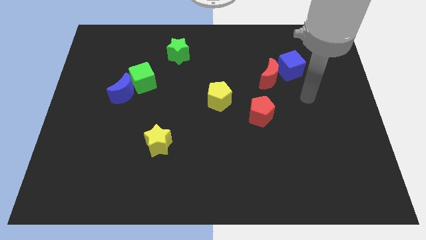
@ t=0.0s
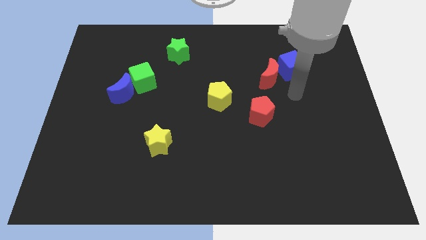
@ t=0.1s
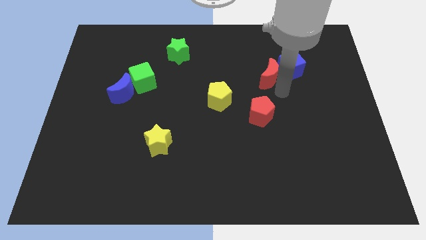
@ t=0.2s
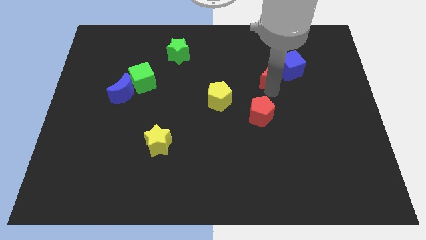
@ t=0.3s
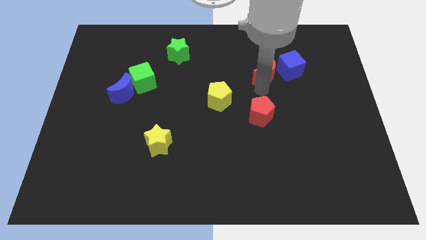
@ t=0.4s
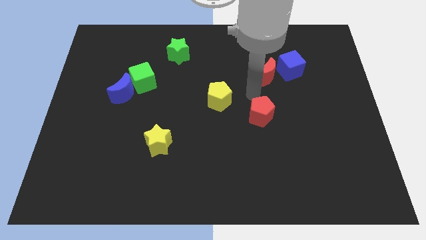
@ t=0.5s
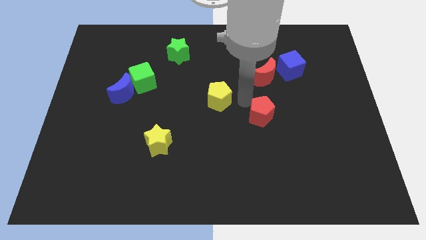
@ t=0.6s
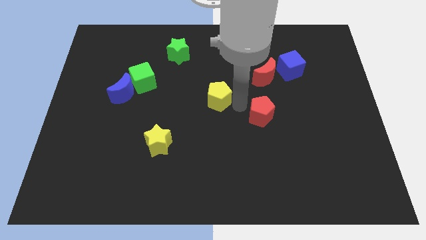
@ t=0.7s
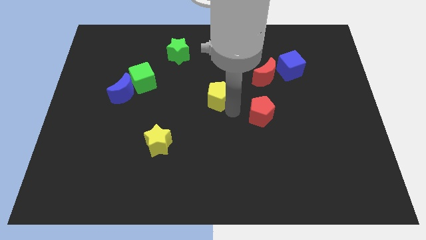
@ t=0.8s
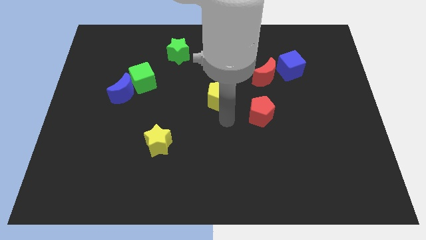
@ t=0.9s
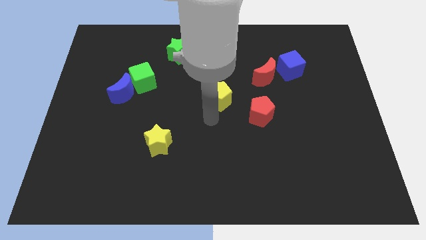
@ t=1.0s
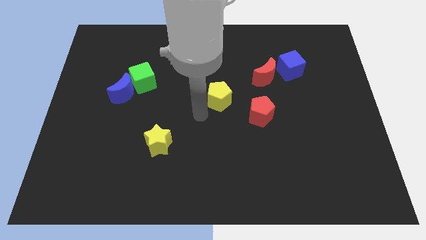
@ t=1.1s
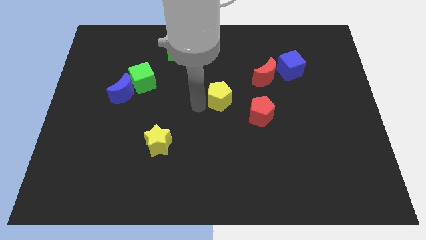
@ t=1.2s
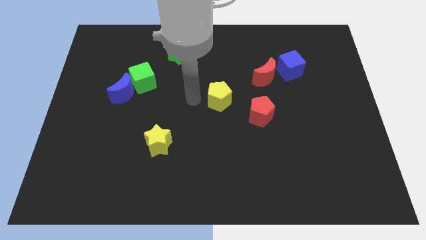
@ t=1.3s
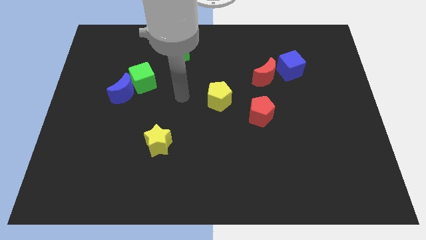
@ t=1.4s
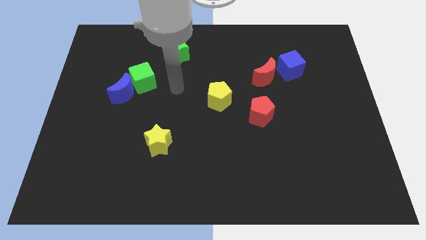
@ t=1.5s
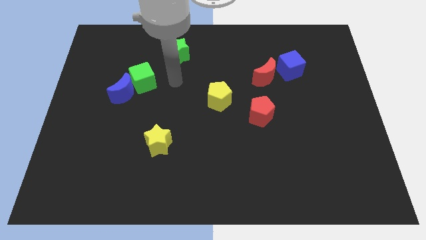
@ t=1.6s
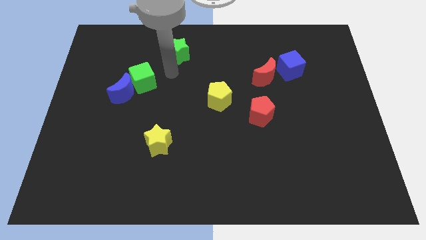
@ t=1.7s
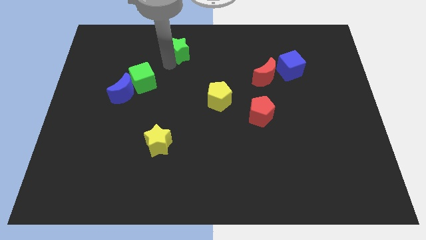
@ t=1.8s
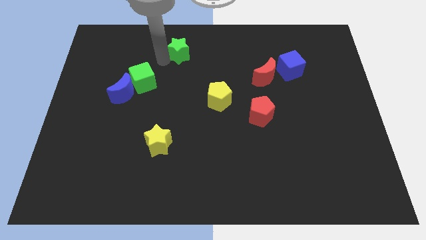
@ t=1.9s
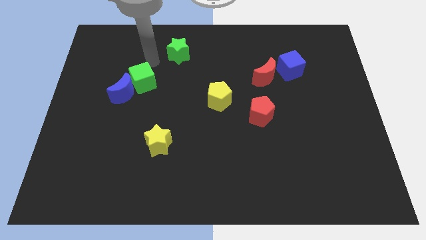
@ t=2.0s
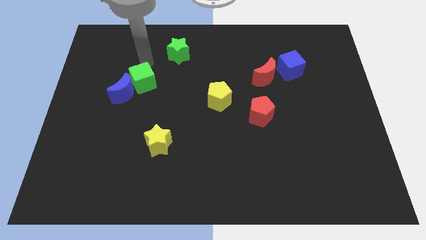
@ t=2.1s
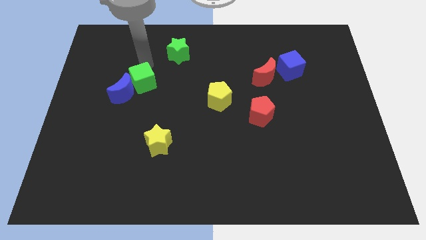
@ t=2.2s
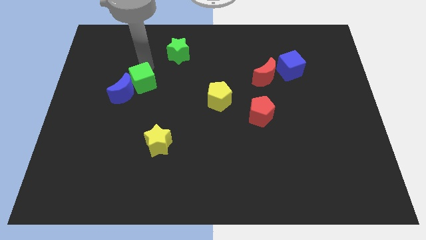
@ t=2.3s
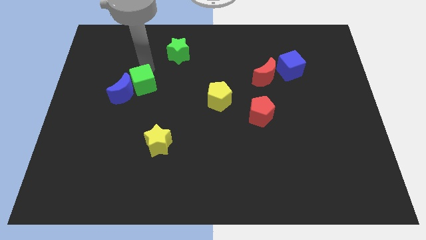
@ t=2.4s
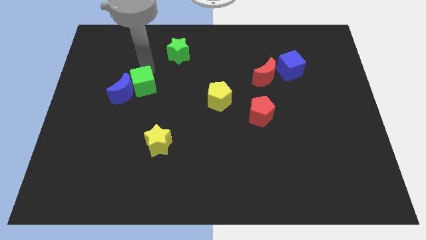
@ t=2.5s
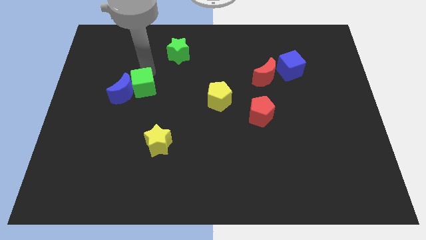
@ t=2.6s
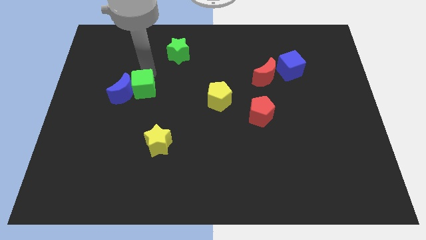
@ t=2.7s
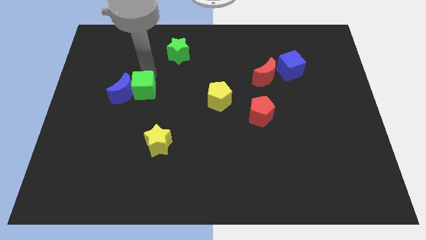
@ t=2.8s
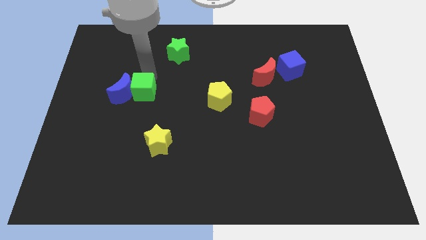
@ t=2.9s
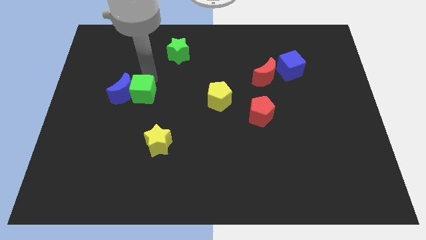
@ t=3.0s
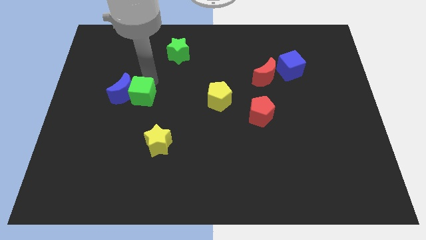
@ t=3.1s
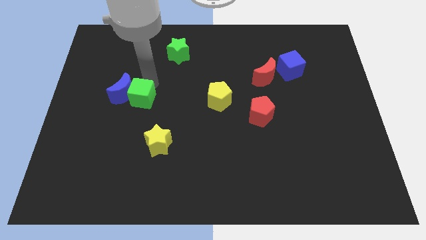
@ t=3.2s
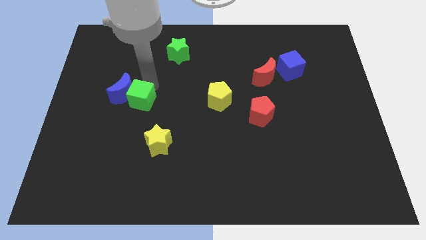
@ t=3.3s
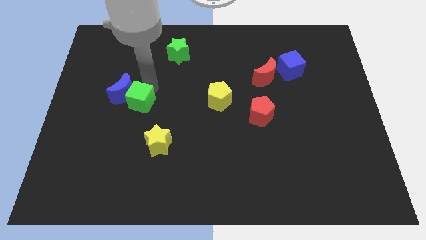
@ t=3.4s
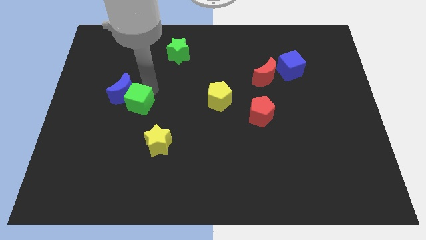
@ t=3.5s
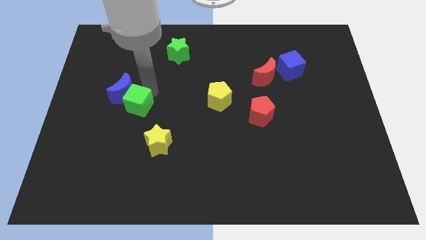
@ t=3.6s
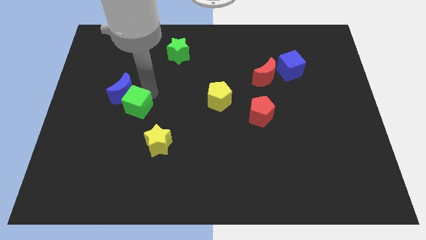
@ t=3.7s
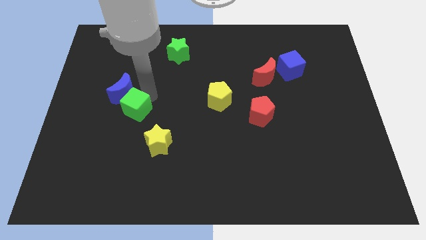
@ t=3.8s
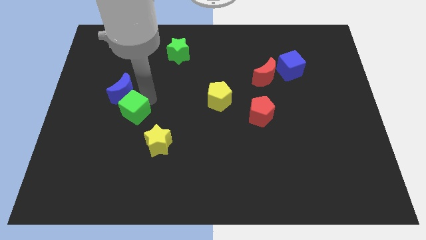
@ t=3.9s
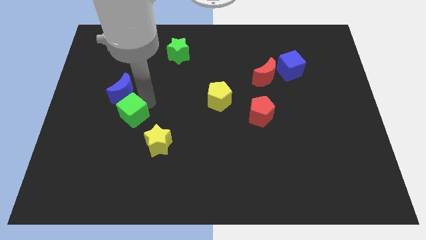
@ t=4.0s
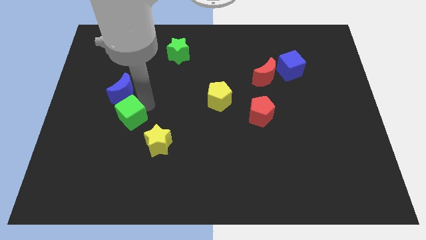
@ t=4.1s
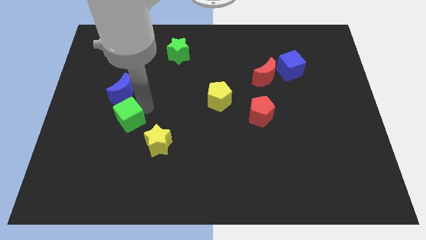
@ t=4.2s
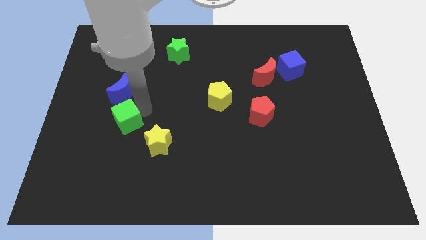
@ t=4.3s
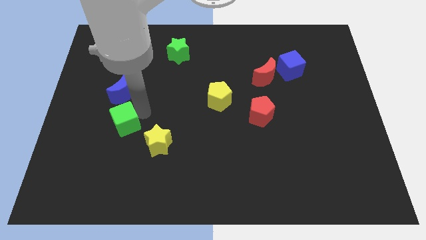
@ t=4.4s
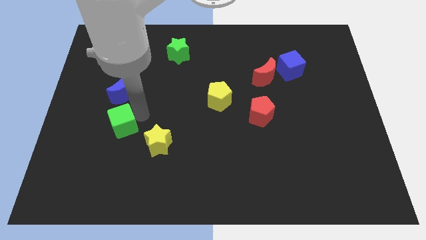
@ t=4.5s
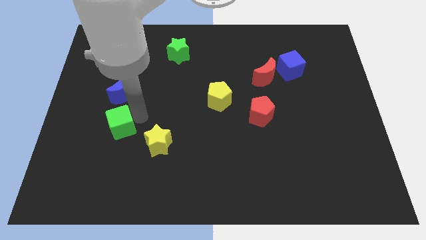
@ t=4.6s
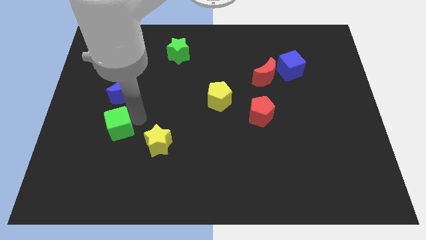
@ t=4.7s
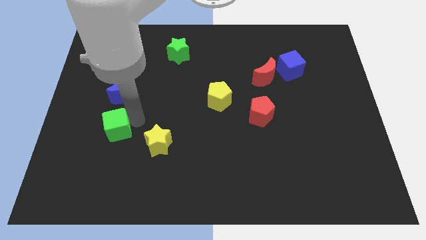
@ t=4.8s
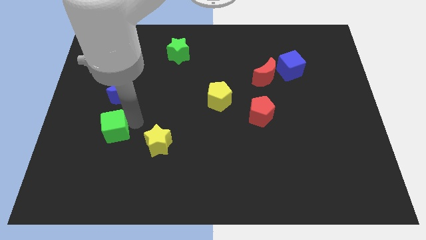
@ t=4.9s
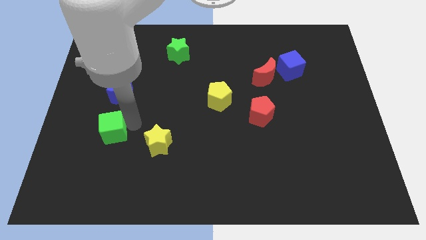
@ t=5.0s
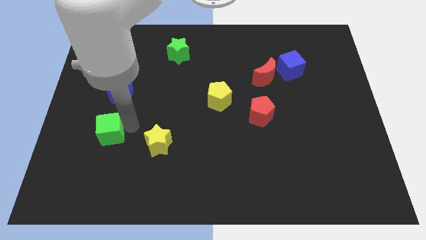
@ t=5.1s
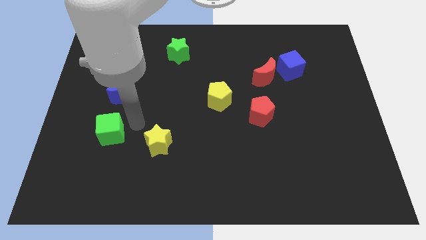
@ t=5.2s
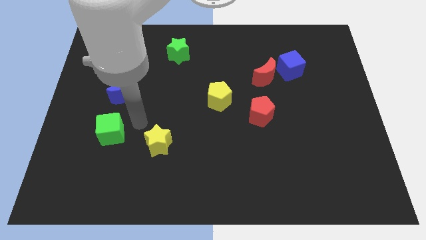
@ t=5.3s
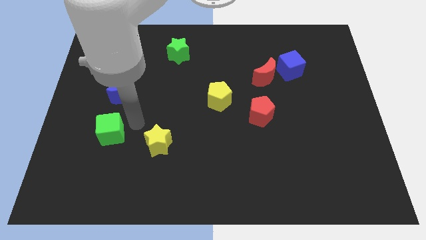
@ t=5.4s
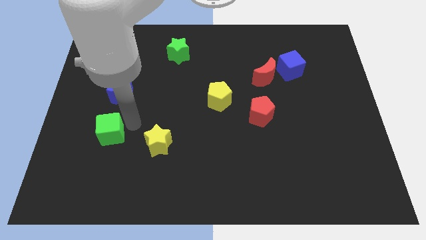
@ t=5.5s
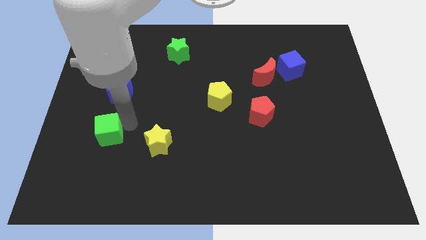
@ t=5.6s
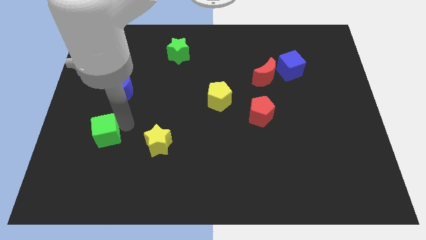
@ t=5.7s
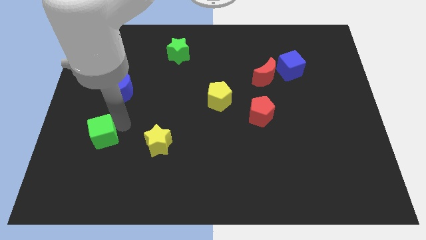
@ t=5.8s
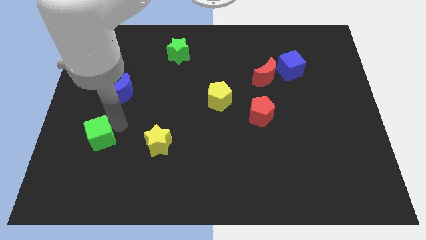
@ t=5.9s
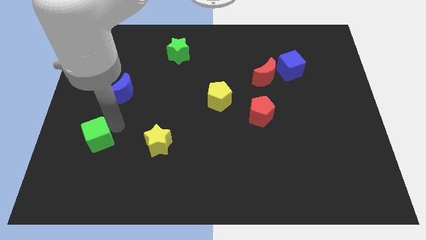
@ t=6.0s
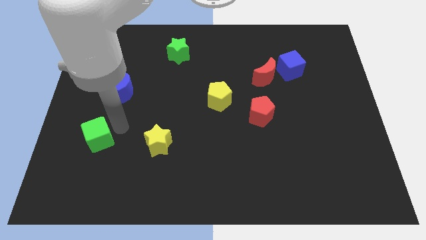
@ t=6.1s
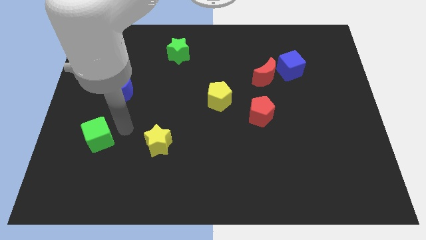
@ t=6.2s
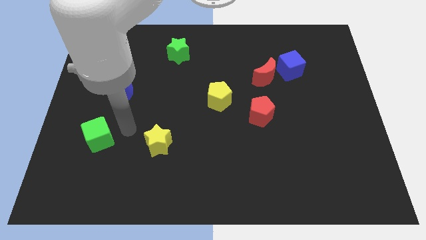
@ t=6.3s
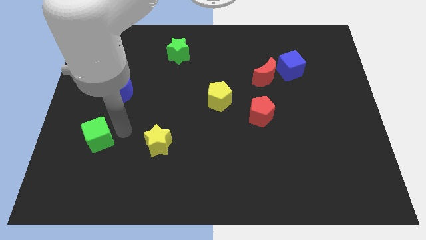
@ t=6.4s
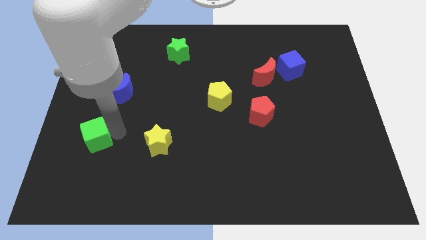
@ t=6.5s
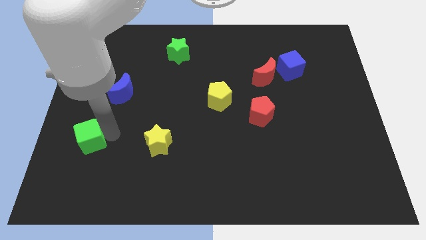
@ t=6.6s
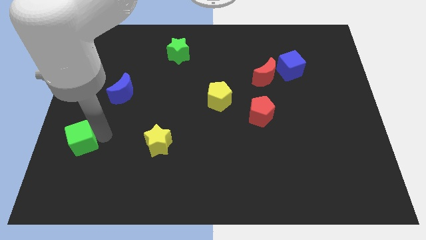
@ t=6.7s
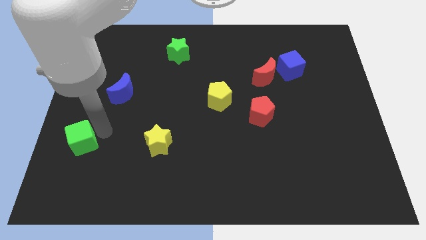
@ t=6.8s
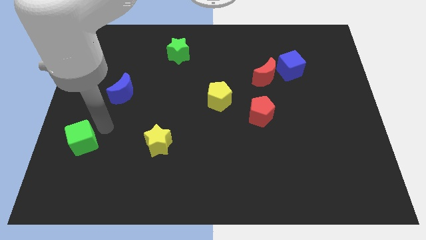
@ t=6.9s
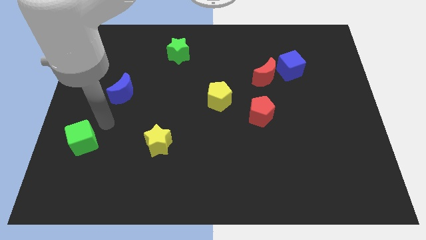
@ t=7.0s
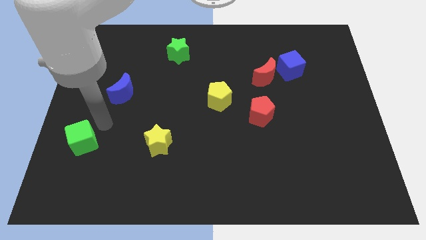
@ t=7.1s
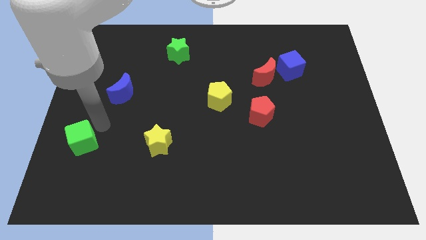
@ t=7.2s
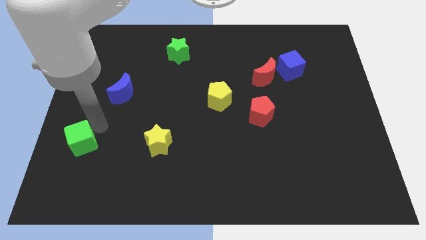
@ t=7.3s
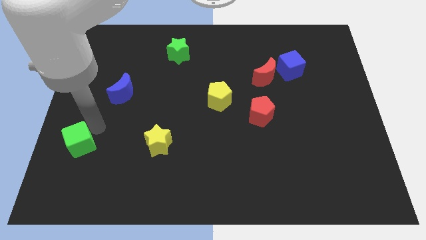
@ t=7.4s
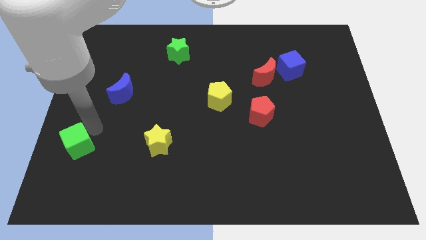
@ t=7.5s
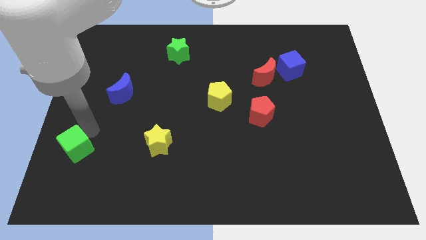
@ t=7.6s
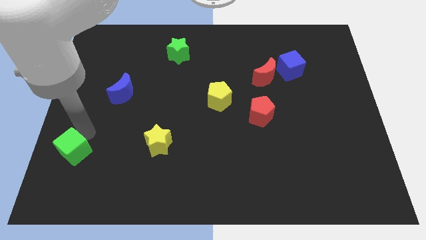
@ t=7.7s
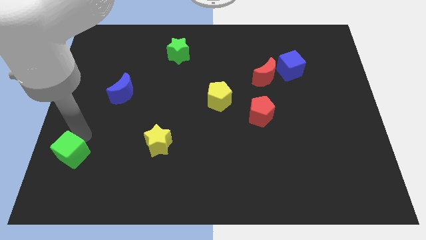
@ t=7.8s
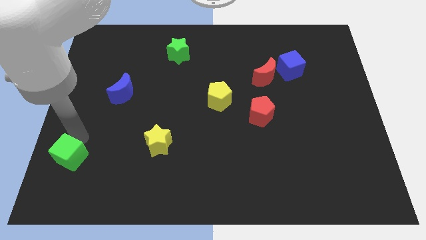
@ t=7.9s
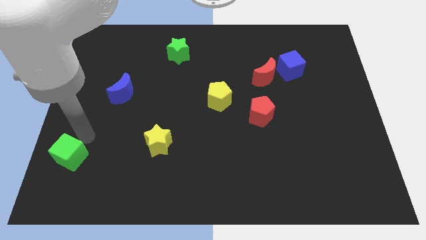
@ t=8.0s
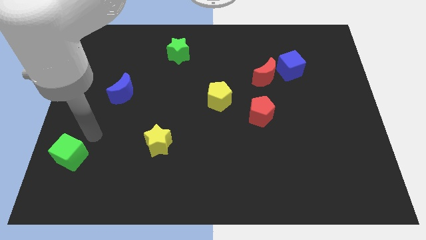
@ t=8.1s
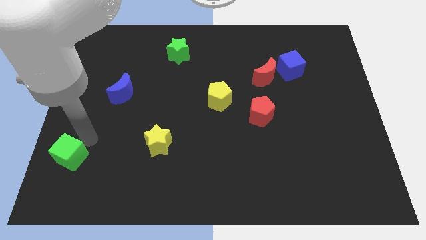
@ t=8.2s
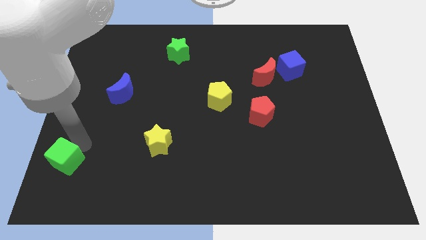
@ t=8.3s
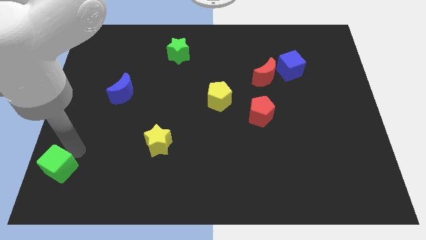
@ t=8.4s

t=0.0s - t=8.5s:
slide the green cube to the bottom left
